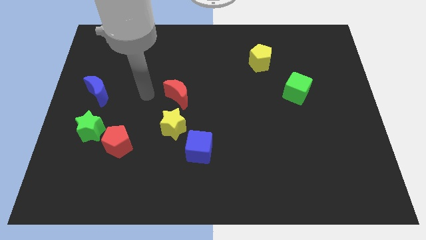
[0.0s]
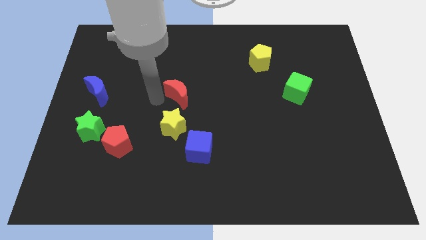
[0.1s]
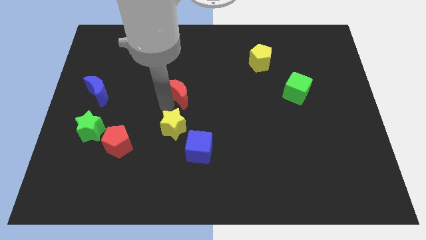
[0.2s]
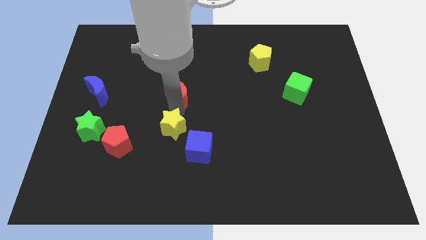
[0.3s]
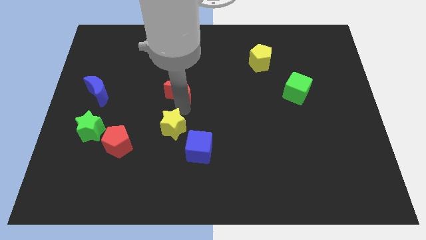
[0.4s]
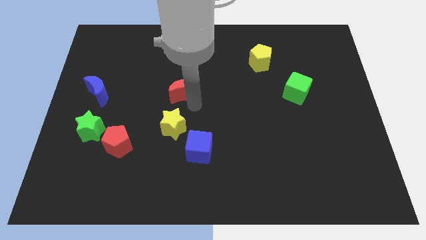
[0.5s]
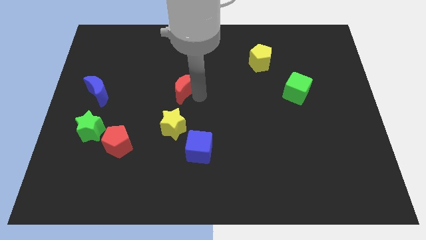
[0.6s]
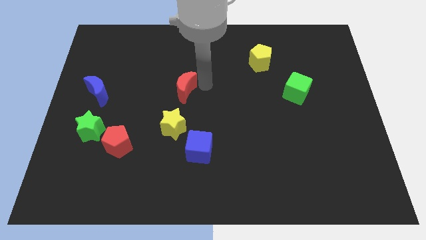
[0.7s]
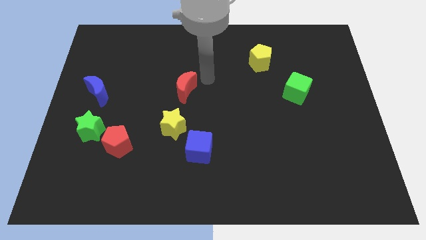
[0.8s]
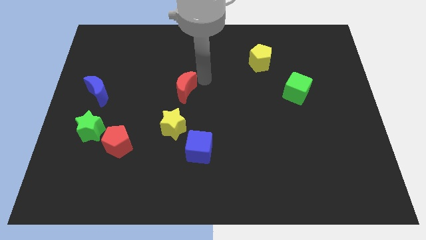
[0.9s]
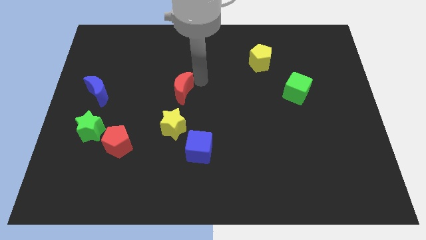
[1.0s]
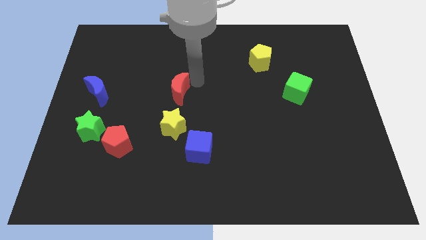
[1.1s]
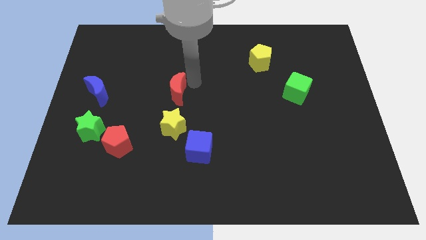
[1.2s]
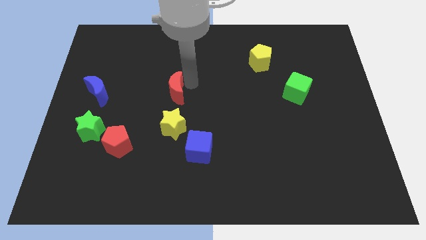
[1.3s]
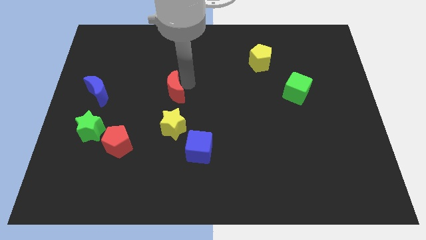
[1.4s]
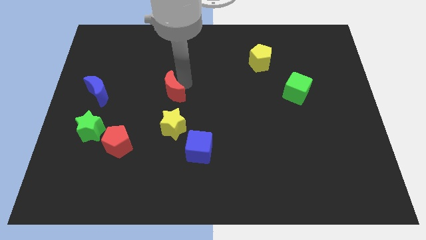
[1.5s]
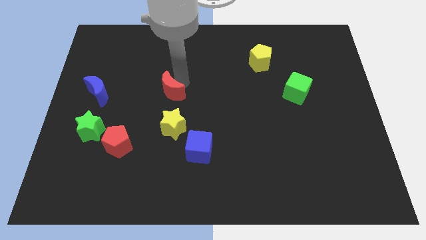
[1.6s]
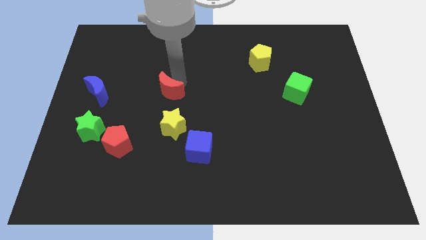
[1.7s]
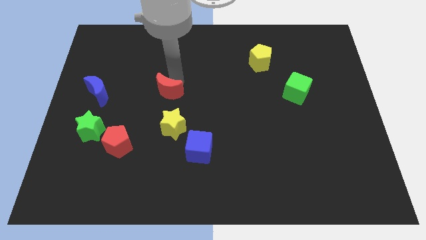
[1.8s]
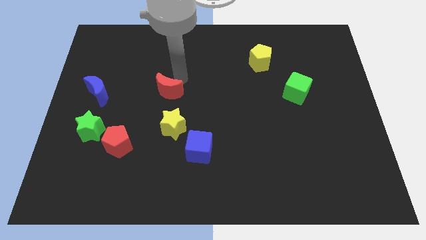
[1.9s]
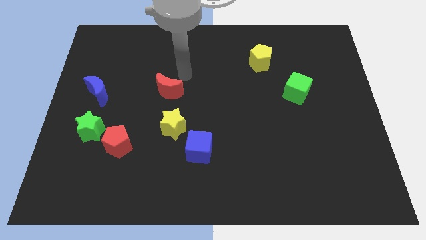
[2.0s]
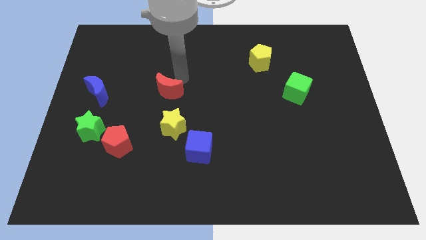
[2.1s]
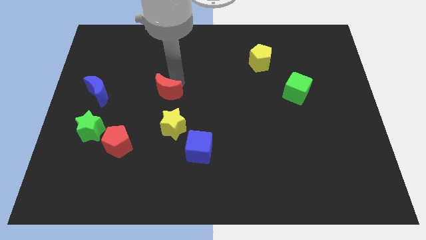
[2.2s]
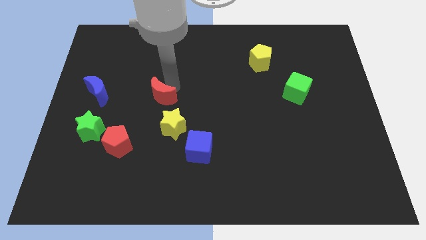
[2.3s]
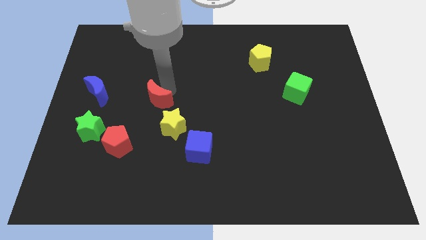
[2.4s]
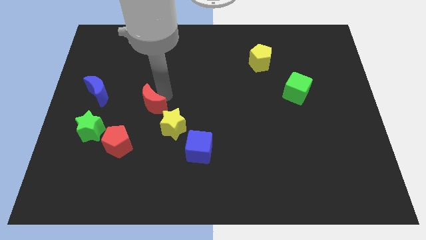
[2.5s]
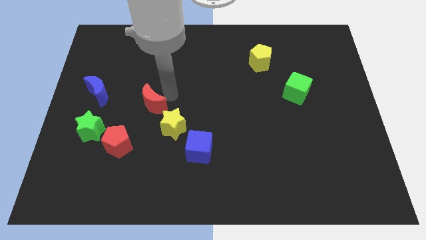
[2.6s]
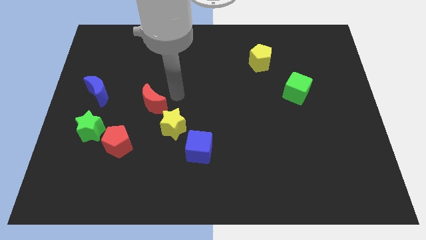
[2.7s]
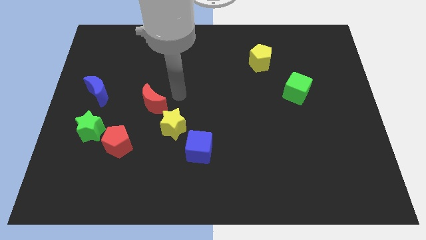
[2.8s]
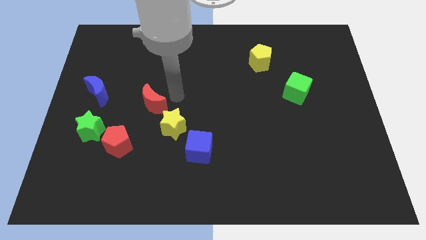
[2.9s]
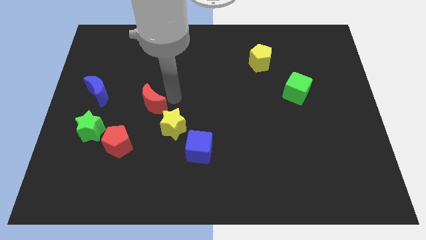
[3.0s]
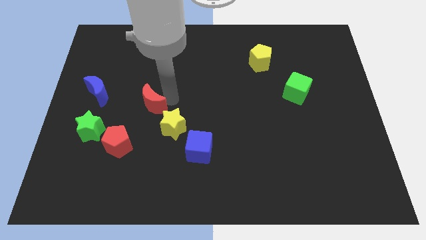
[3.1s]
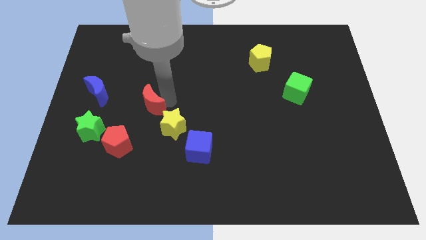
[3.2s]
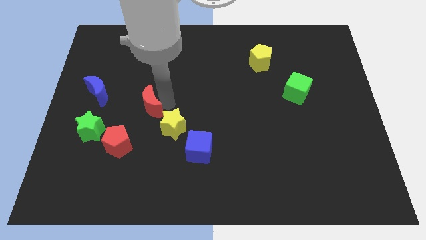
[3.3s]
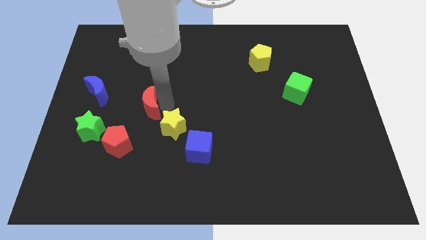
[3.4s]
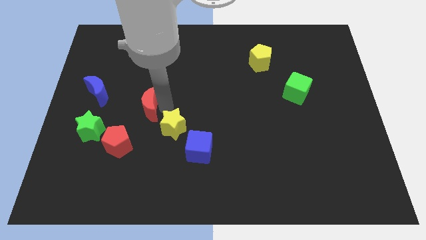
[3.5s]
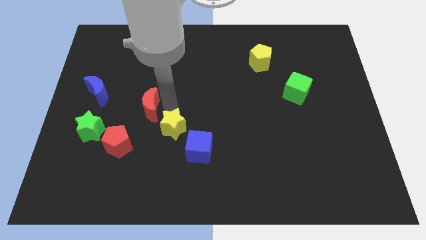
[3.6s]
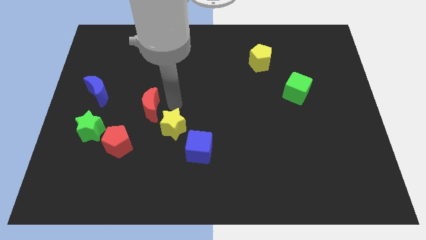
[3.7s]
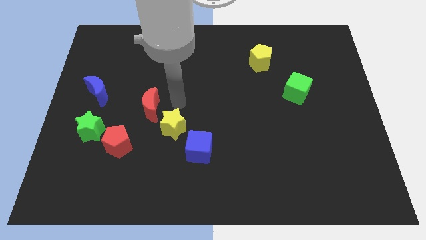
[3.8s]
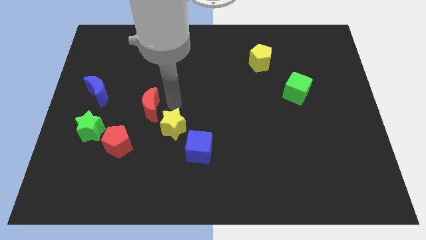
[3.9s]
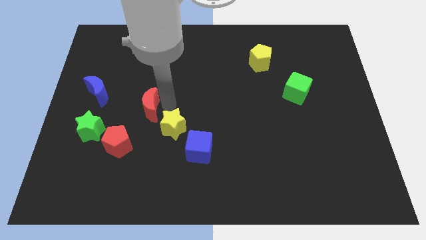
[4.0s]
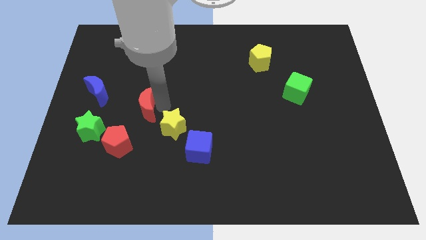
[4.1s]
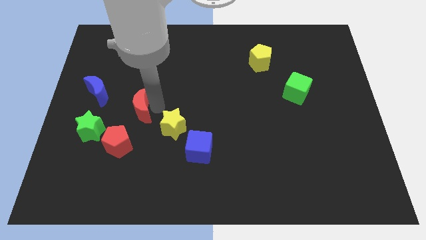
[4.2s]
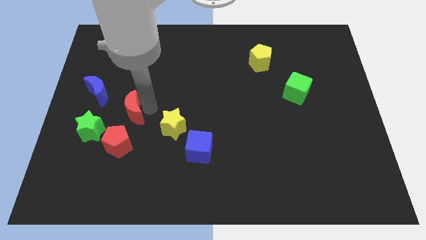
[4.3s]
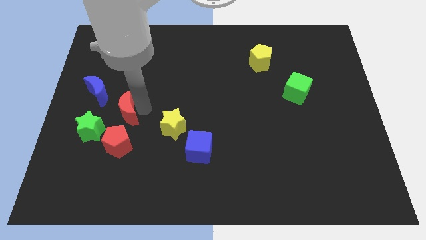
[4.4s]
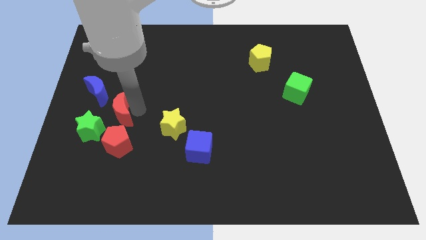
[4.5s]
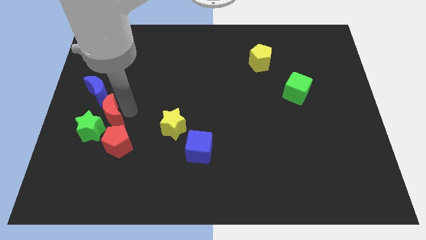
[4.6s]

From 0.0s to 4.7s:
move the red moon towards the green star

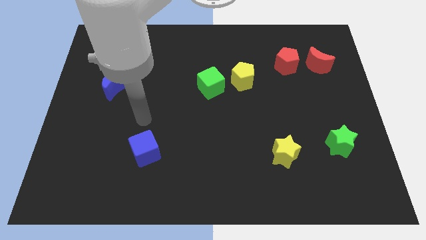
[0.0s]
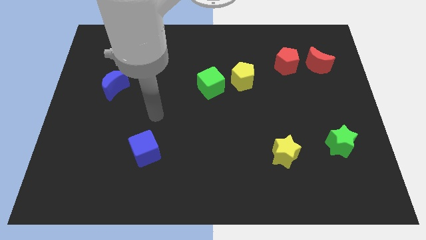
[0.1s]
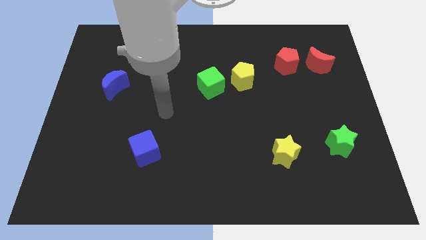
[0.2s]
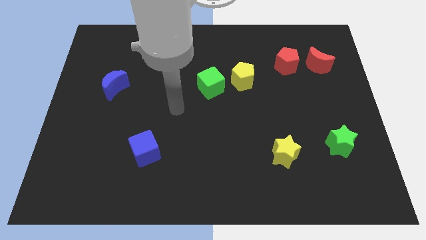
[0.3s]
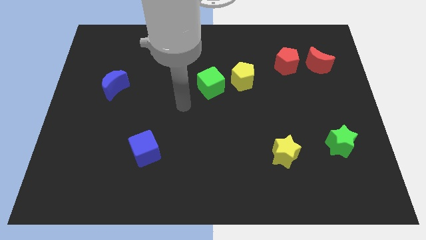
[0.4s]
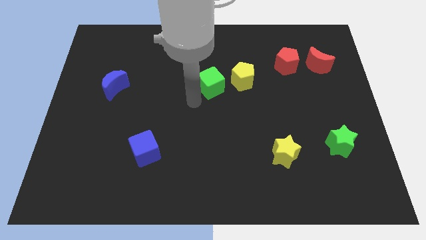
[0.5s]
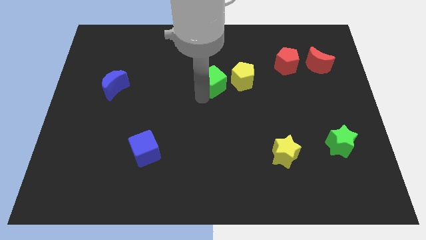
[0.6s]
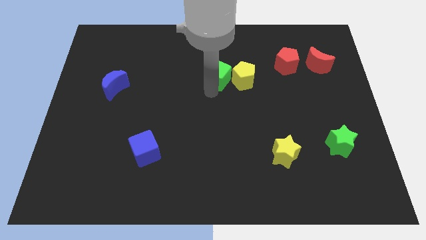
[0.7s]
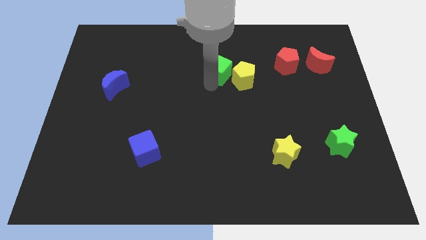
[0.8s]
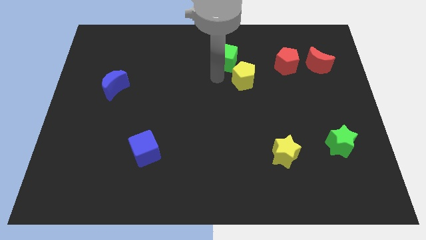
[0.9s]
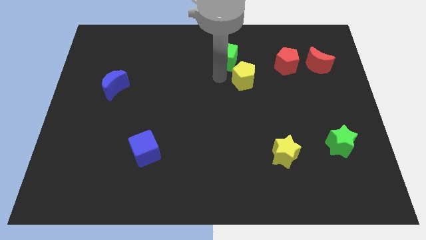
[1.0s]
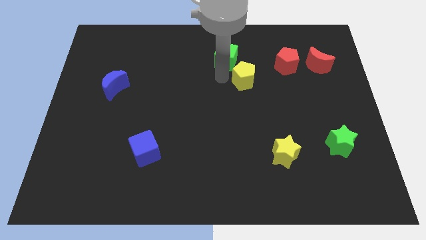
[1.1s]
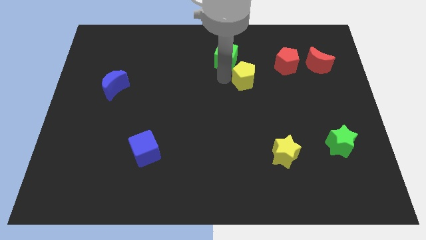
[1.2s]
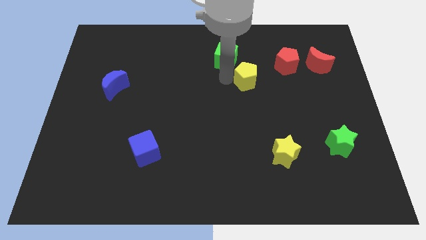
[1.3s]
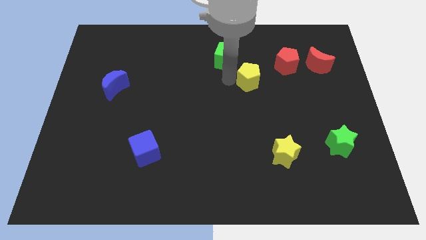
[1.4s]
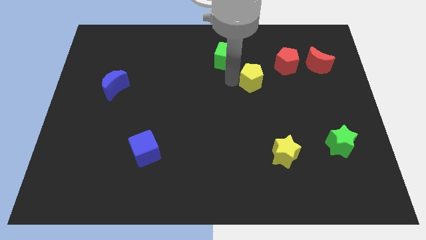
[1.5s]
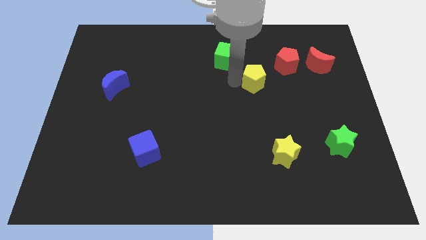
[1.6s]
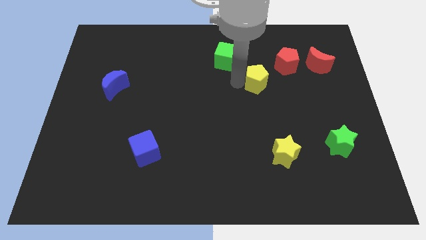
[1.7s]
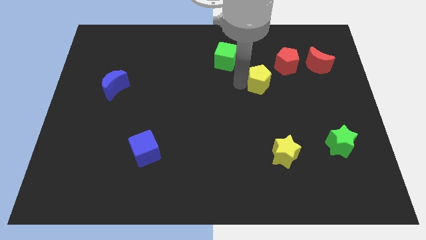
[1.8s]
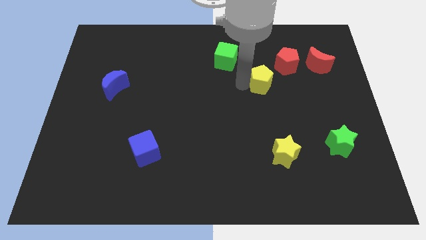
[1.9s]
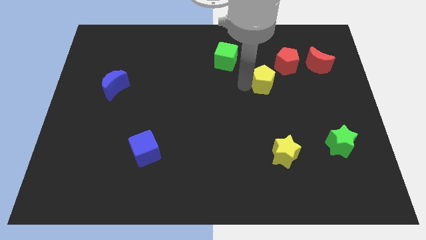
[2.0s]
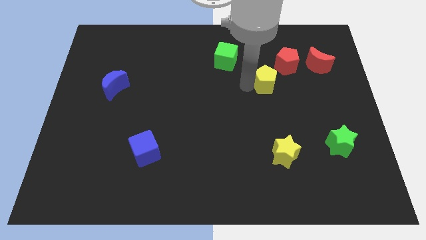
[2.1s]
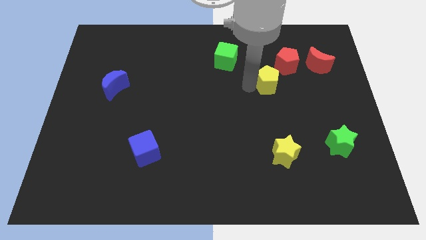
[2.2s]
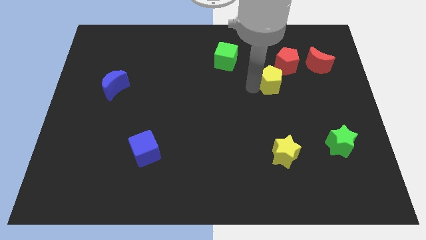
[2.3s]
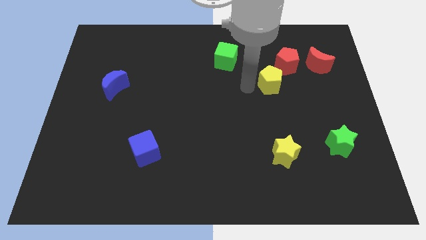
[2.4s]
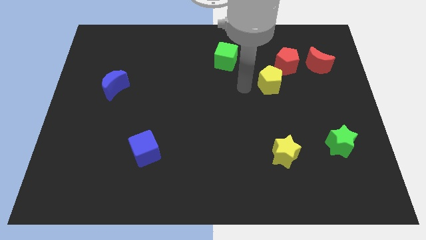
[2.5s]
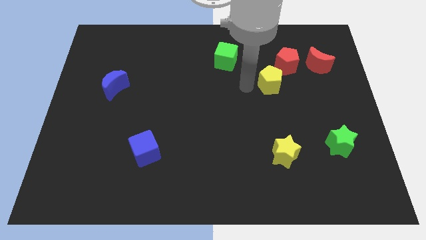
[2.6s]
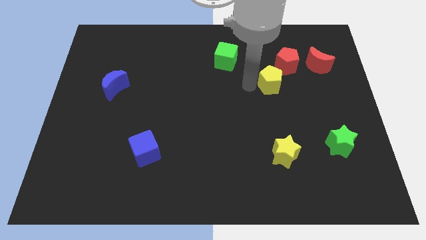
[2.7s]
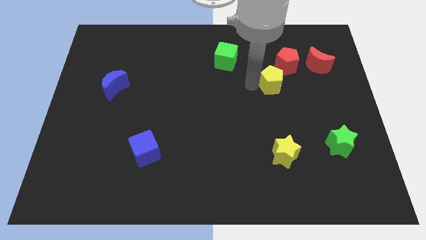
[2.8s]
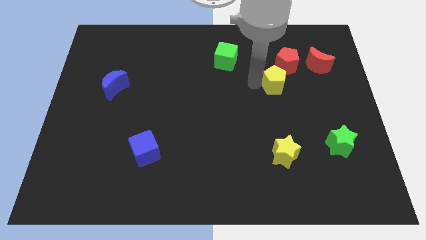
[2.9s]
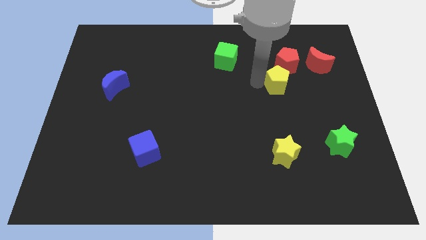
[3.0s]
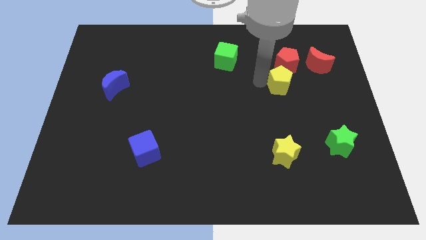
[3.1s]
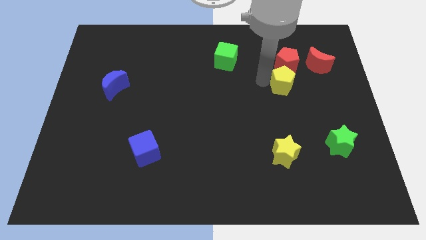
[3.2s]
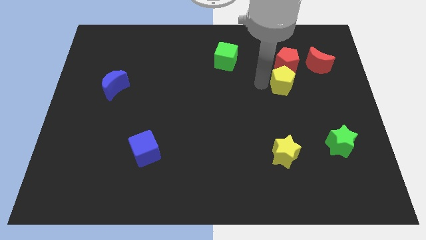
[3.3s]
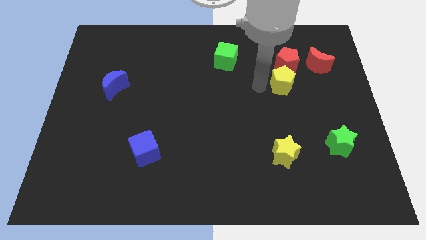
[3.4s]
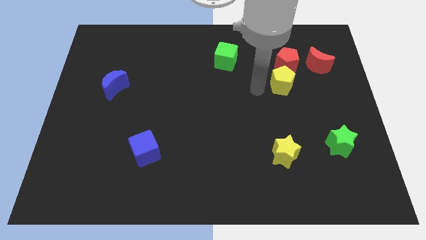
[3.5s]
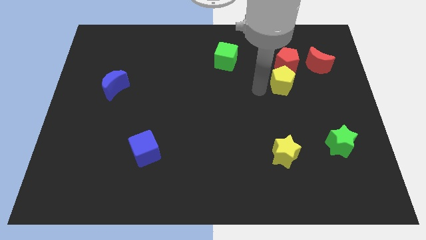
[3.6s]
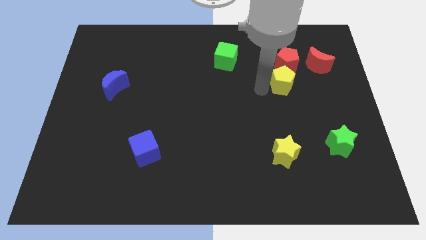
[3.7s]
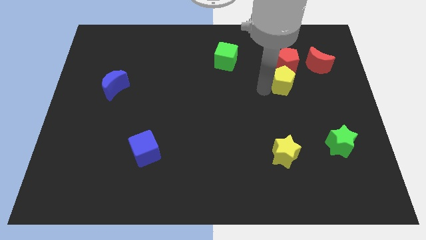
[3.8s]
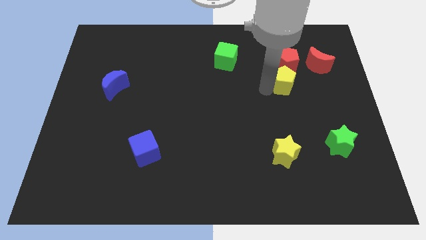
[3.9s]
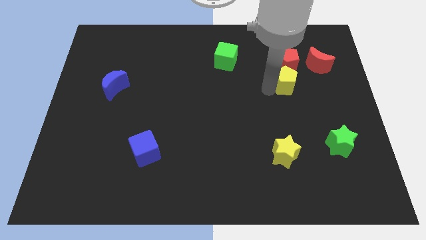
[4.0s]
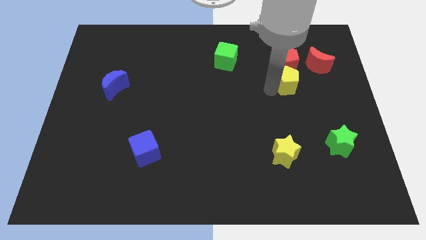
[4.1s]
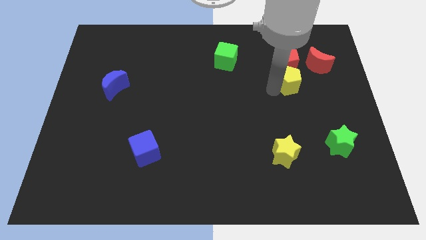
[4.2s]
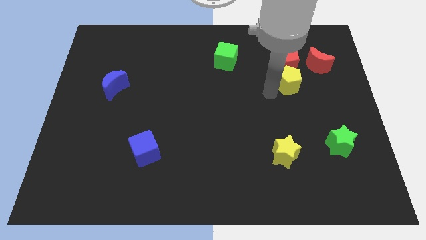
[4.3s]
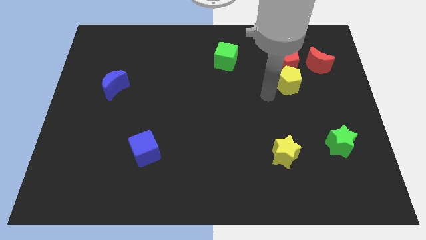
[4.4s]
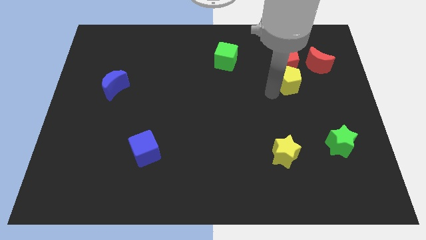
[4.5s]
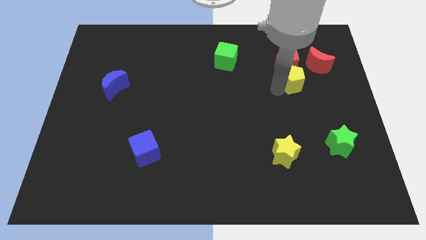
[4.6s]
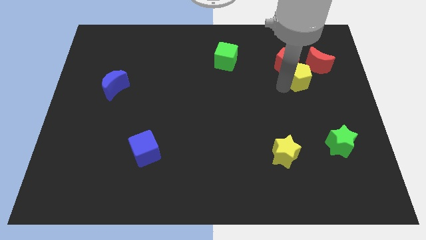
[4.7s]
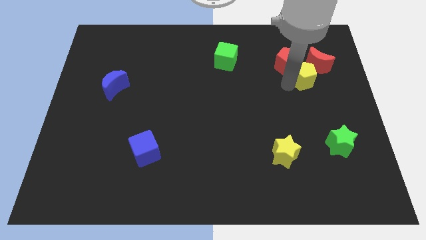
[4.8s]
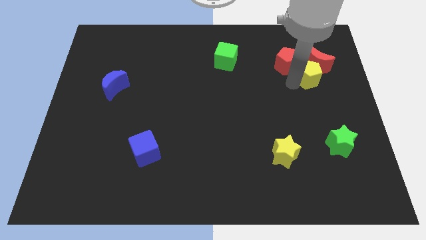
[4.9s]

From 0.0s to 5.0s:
move the yellow pentagon towards the red moon
